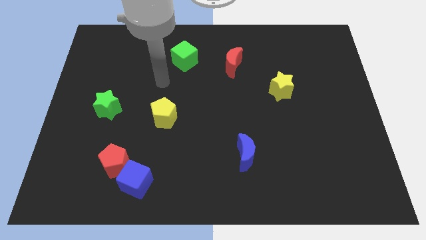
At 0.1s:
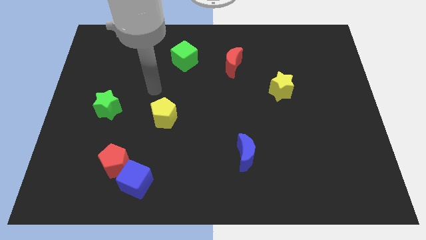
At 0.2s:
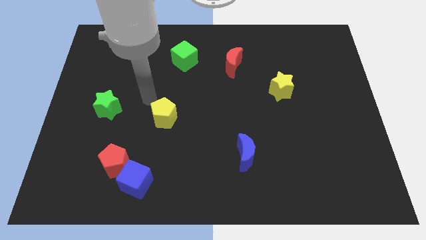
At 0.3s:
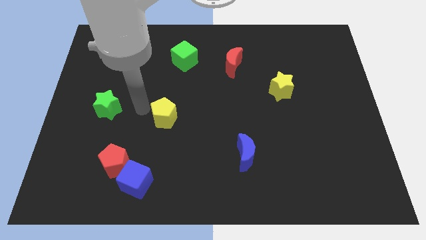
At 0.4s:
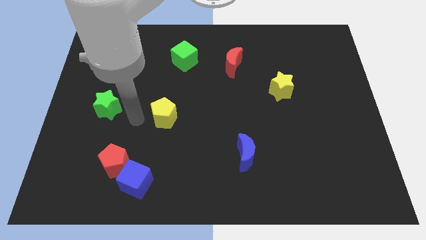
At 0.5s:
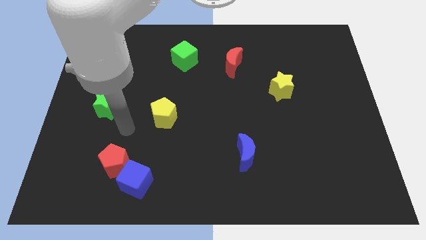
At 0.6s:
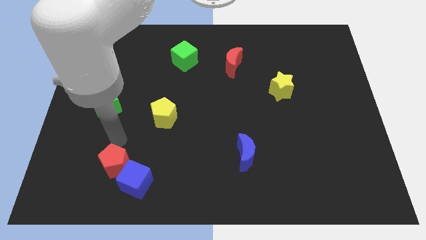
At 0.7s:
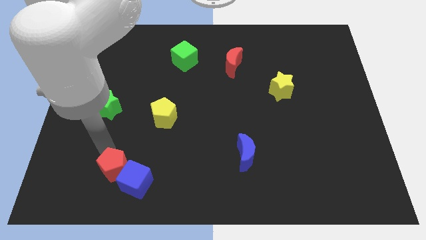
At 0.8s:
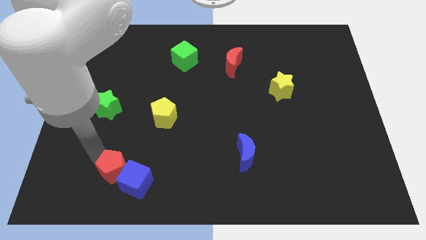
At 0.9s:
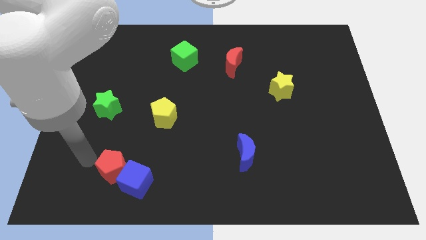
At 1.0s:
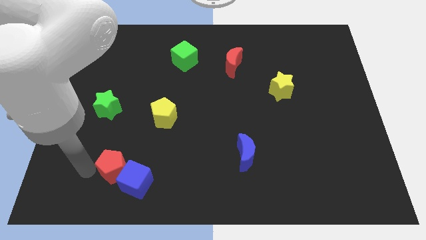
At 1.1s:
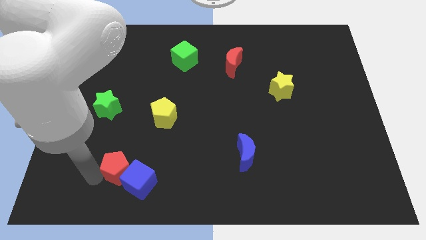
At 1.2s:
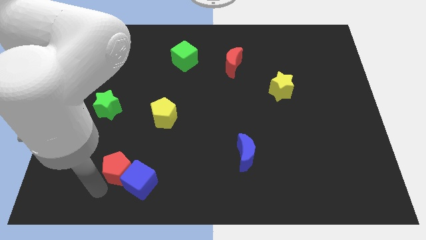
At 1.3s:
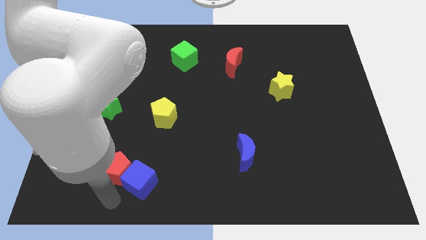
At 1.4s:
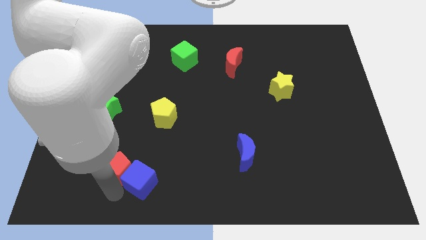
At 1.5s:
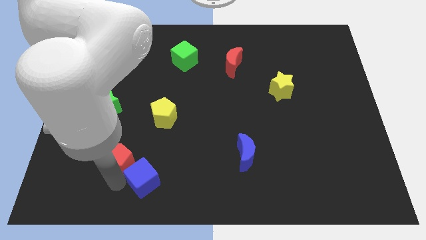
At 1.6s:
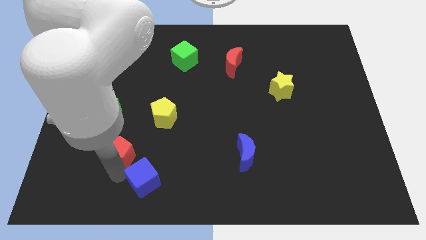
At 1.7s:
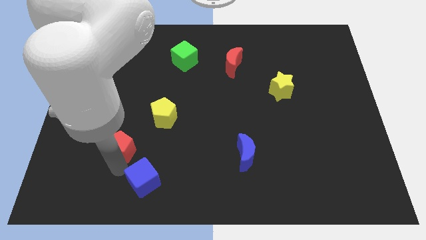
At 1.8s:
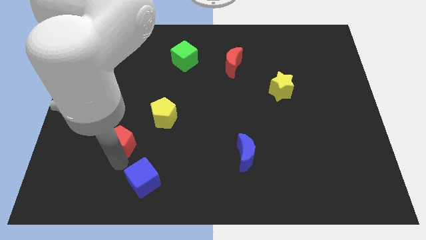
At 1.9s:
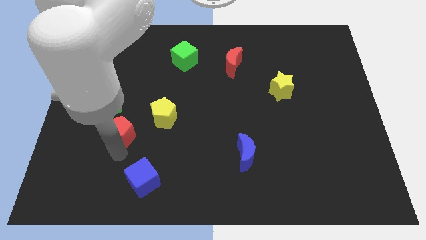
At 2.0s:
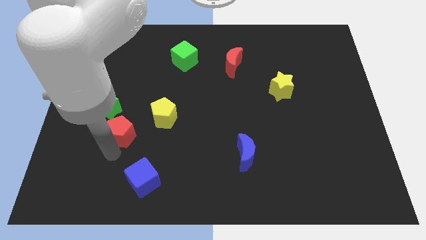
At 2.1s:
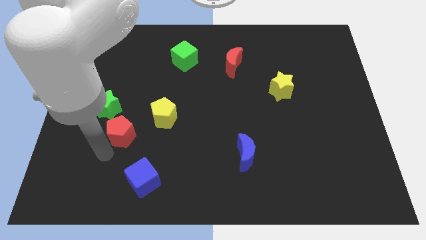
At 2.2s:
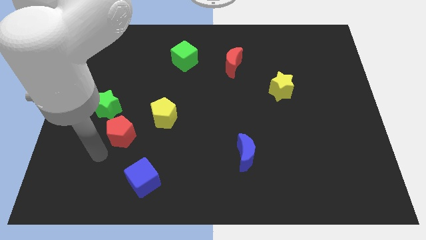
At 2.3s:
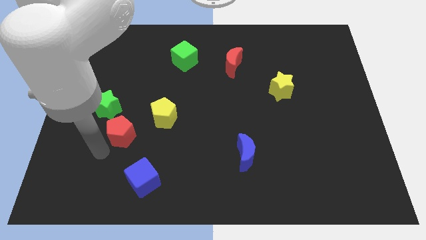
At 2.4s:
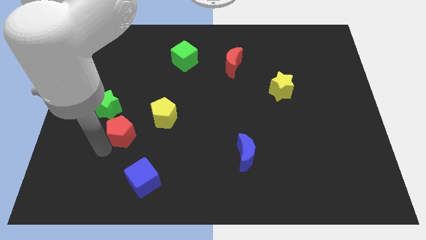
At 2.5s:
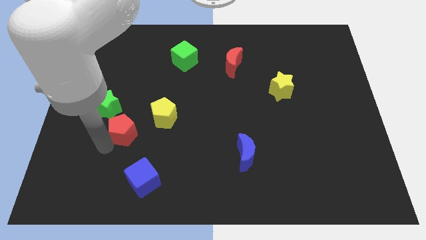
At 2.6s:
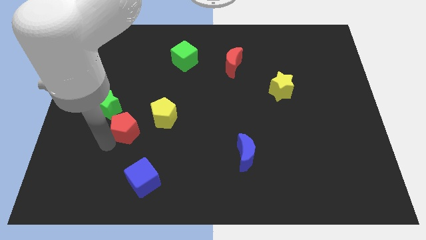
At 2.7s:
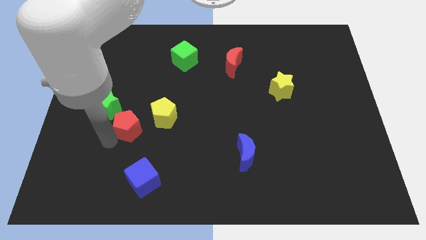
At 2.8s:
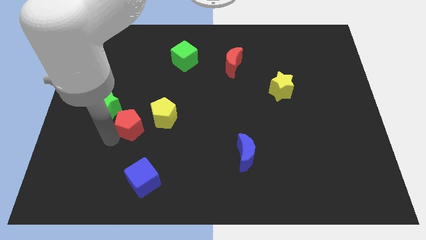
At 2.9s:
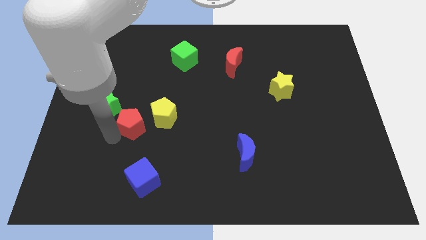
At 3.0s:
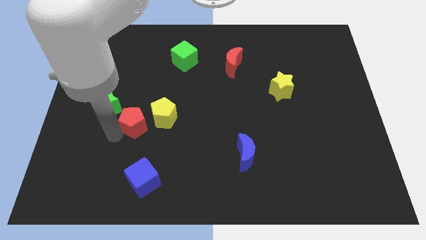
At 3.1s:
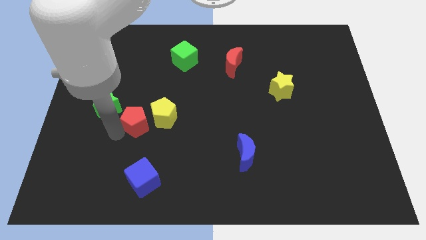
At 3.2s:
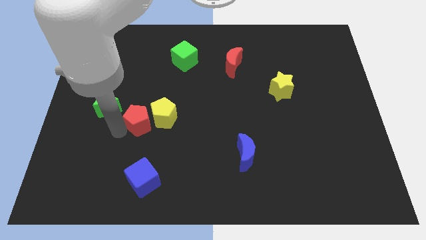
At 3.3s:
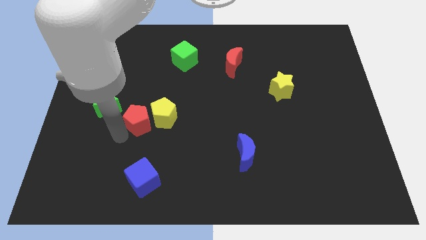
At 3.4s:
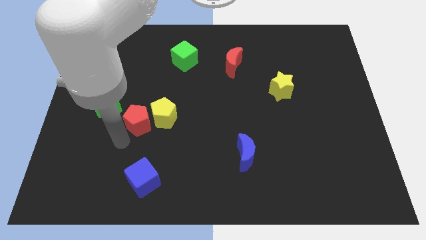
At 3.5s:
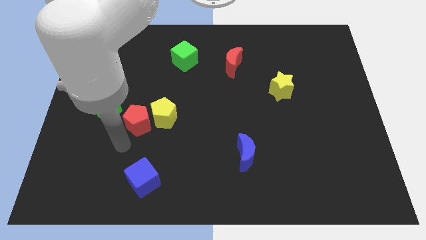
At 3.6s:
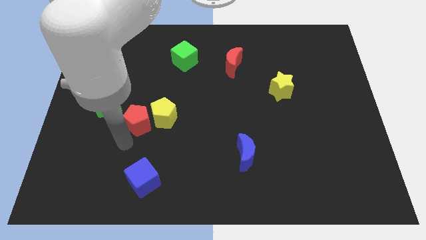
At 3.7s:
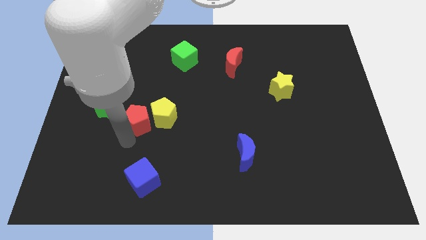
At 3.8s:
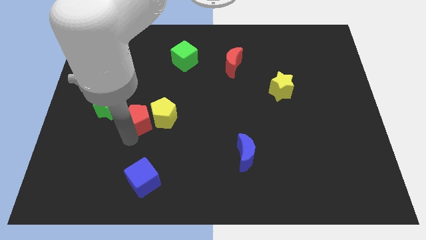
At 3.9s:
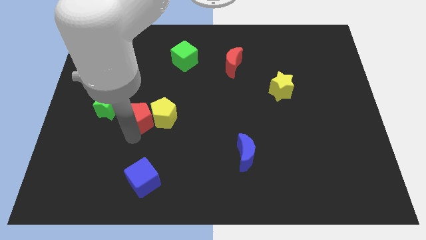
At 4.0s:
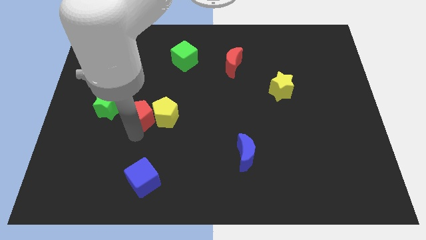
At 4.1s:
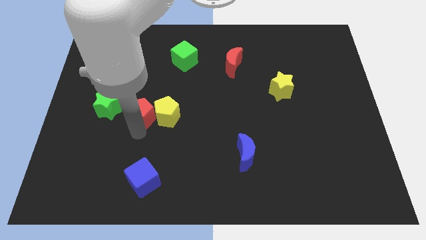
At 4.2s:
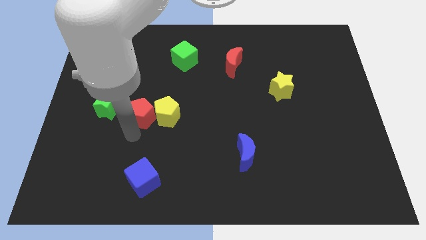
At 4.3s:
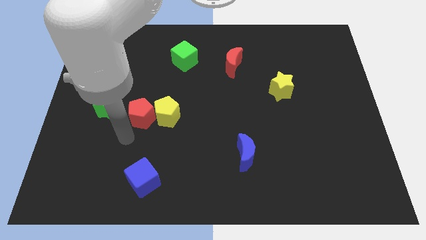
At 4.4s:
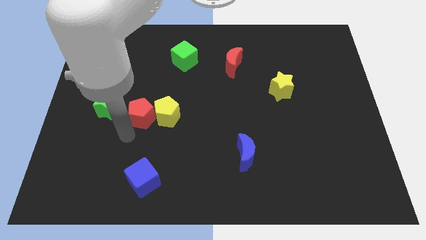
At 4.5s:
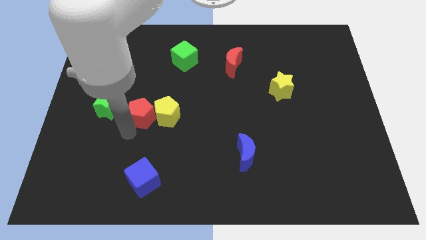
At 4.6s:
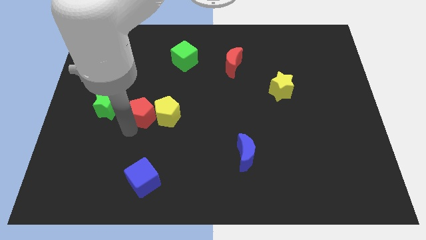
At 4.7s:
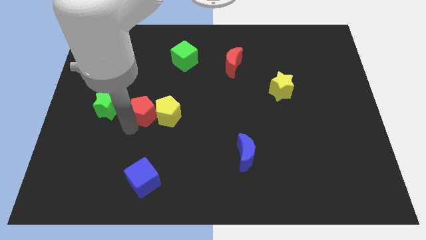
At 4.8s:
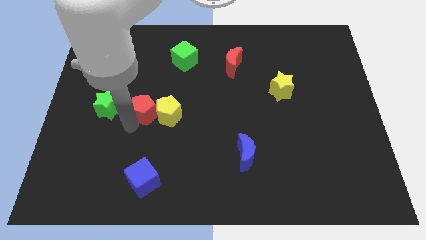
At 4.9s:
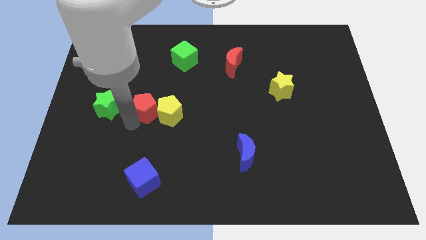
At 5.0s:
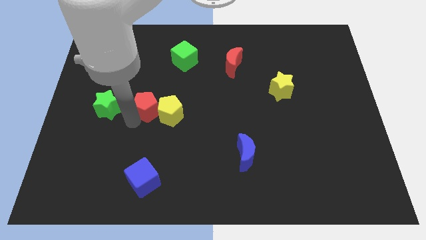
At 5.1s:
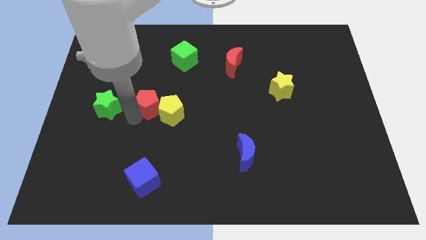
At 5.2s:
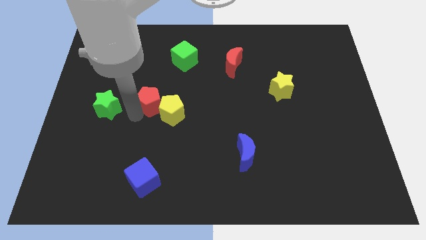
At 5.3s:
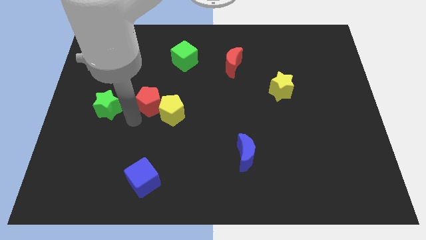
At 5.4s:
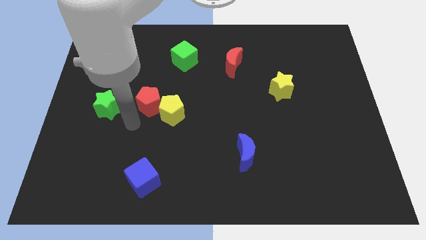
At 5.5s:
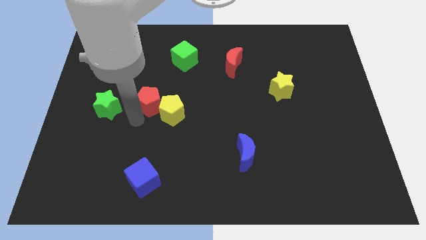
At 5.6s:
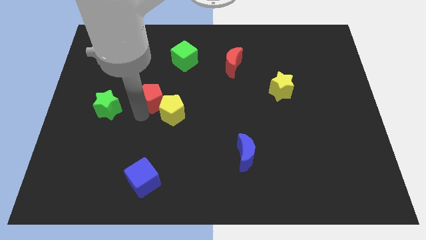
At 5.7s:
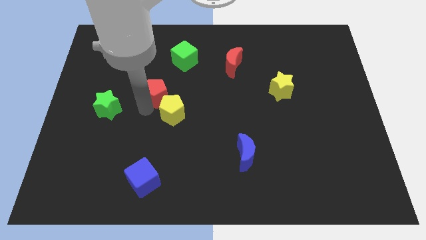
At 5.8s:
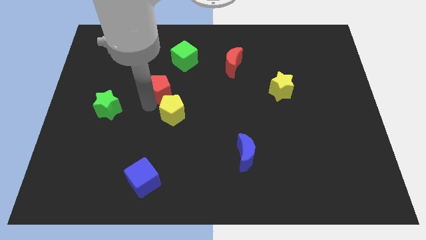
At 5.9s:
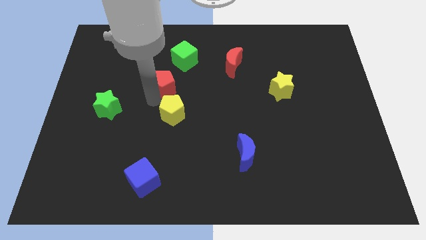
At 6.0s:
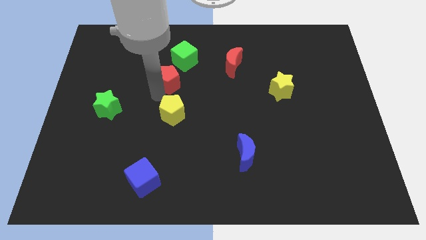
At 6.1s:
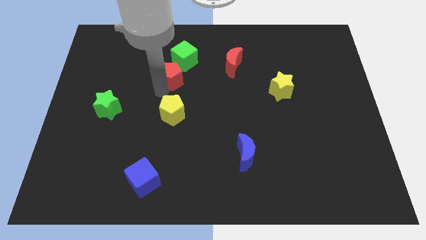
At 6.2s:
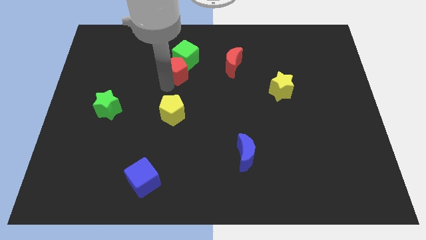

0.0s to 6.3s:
move the red pentagon to the green cube

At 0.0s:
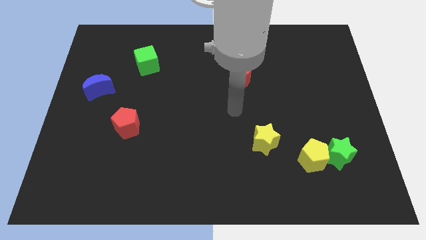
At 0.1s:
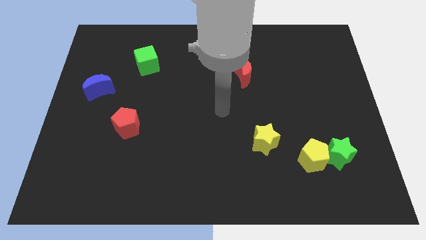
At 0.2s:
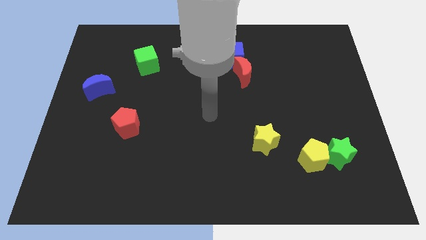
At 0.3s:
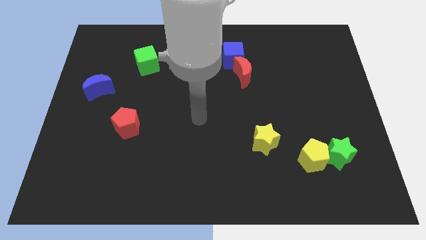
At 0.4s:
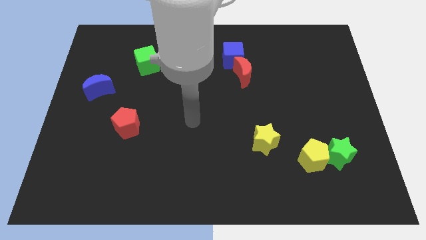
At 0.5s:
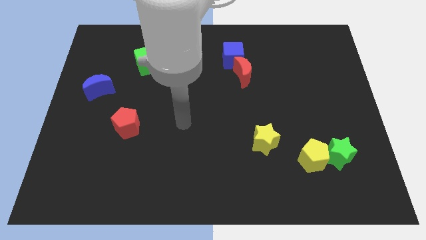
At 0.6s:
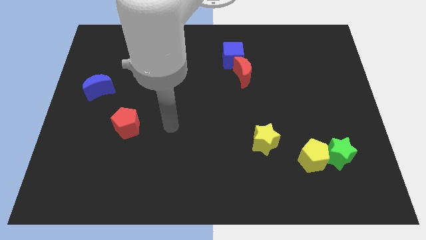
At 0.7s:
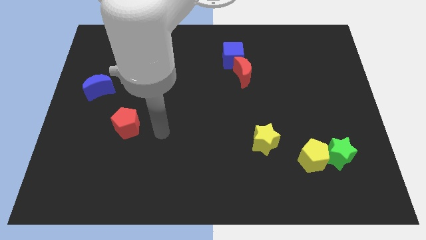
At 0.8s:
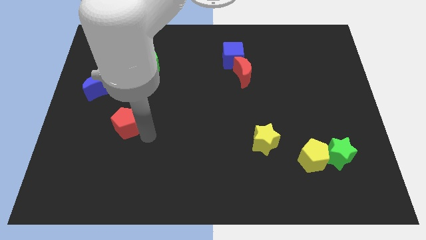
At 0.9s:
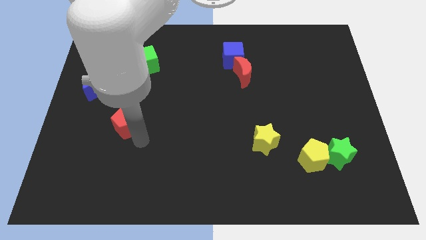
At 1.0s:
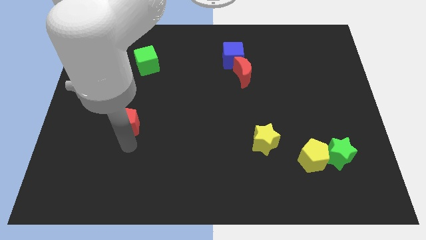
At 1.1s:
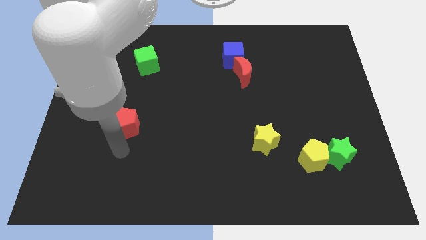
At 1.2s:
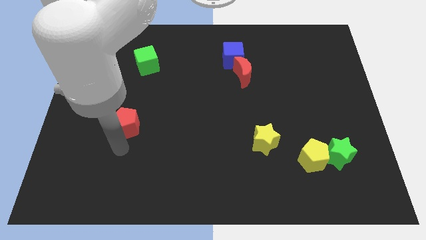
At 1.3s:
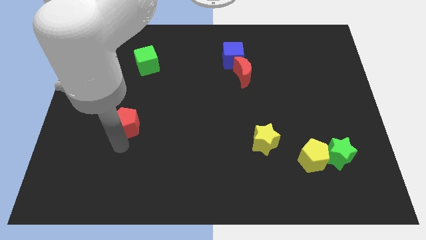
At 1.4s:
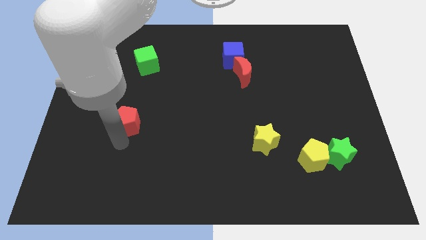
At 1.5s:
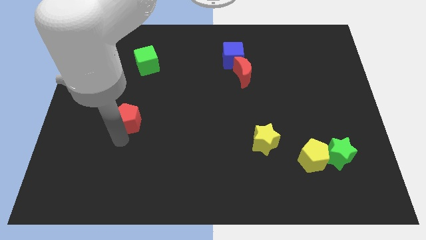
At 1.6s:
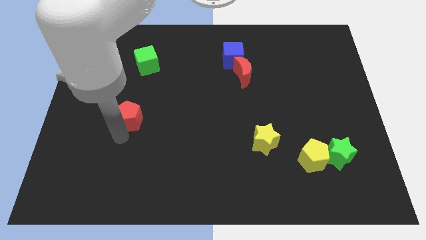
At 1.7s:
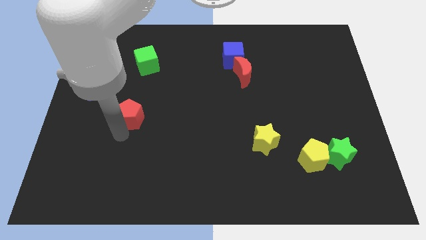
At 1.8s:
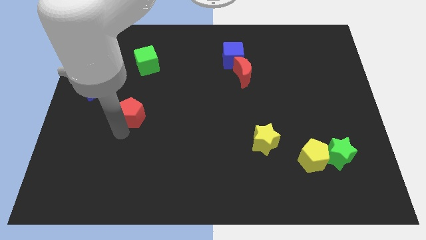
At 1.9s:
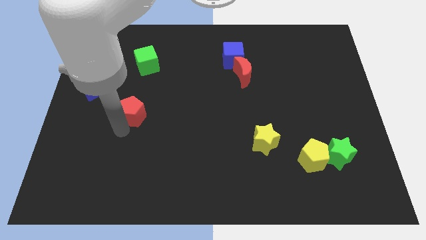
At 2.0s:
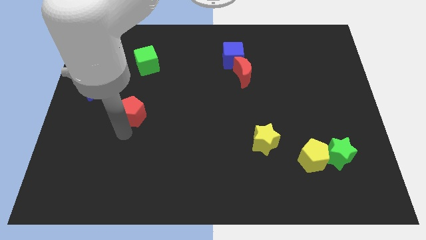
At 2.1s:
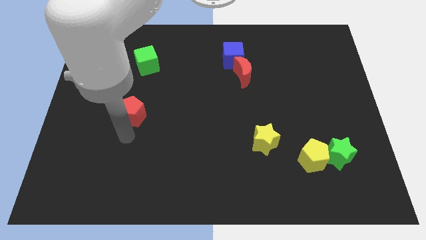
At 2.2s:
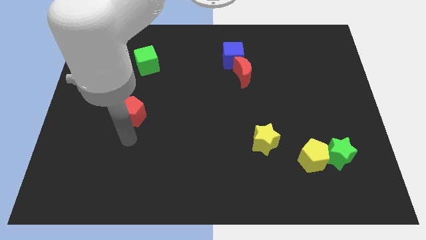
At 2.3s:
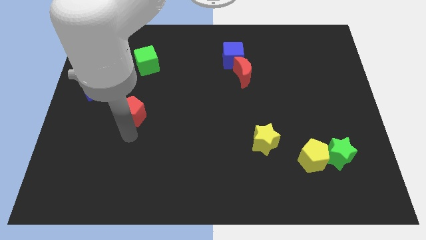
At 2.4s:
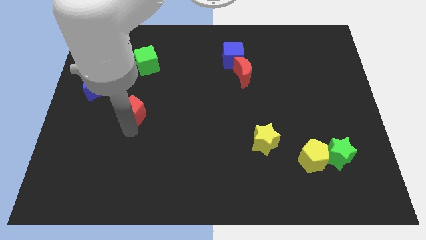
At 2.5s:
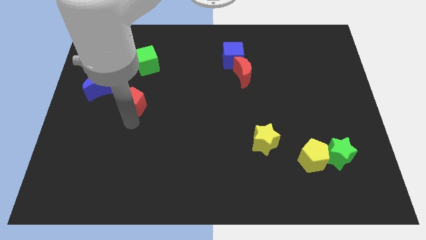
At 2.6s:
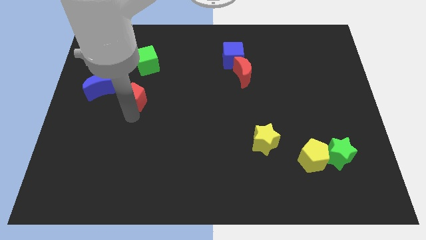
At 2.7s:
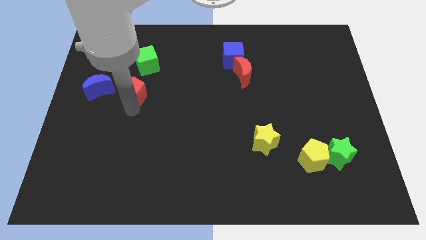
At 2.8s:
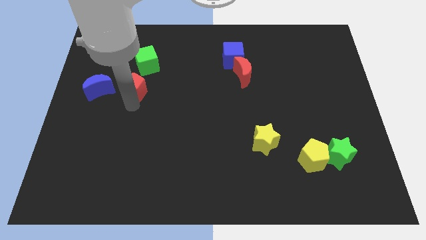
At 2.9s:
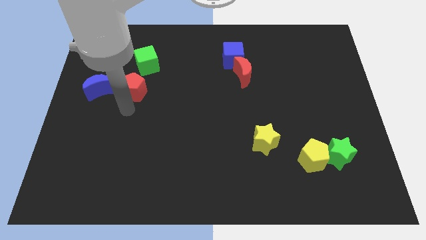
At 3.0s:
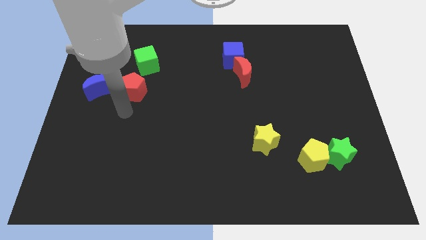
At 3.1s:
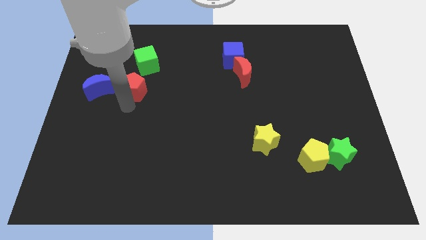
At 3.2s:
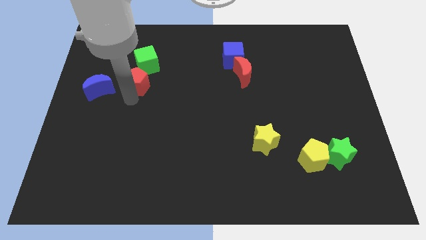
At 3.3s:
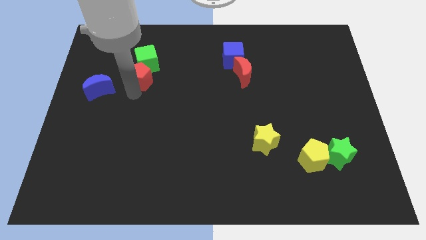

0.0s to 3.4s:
put the red pentagon towards the green cube
